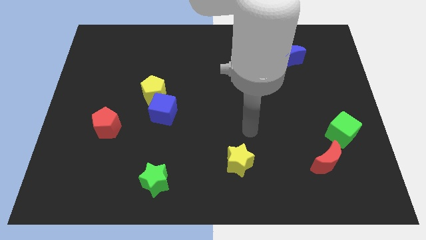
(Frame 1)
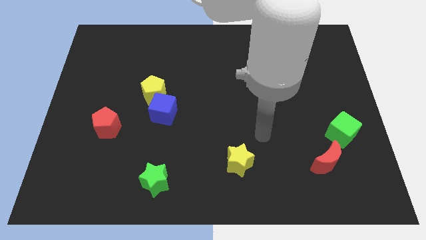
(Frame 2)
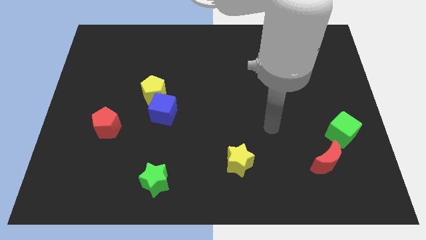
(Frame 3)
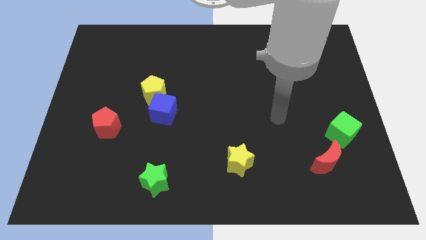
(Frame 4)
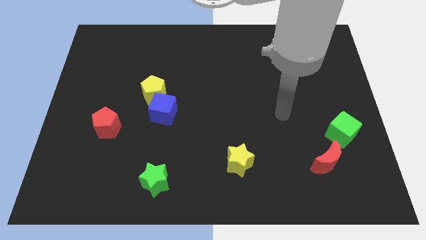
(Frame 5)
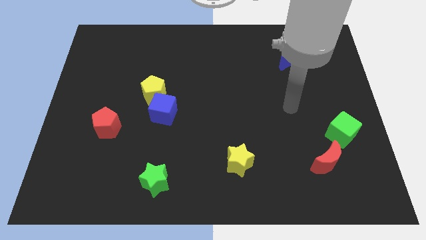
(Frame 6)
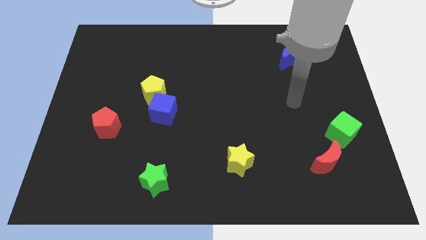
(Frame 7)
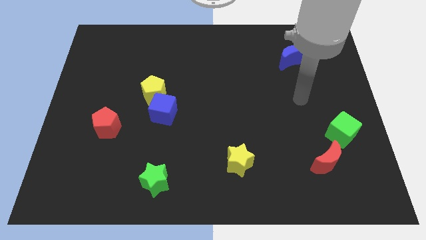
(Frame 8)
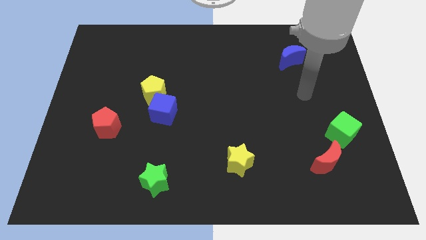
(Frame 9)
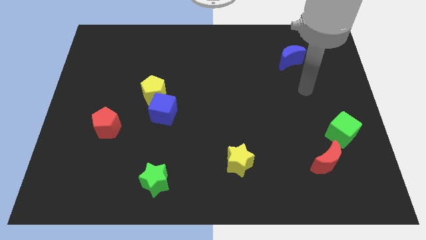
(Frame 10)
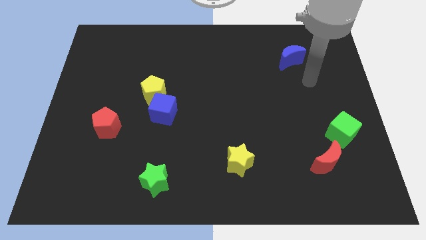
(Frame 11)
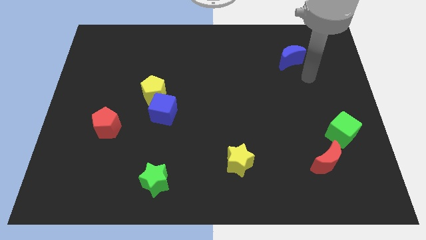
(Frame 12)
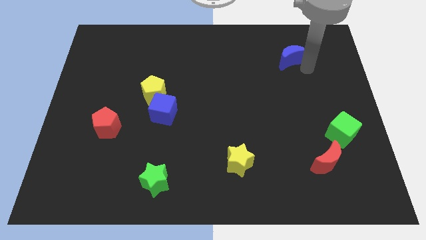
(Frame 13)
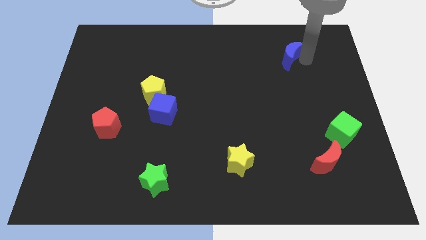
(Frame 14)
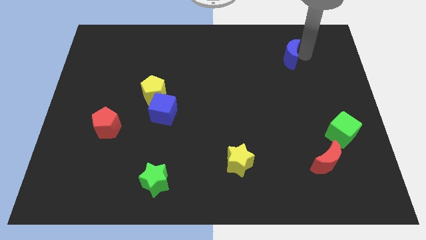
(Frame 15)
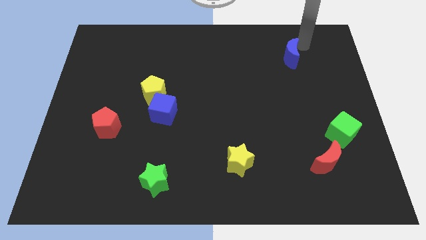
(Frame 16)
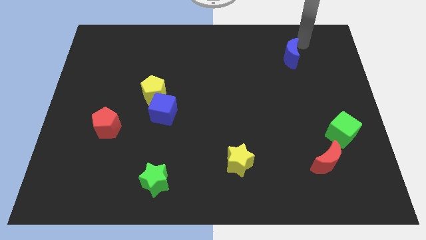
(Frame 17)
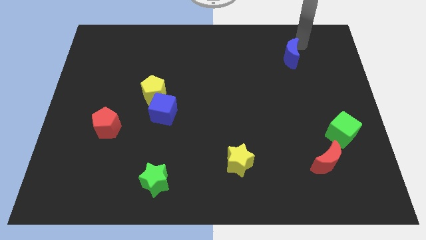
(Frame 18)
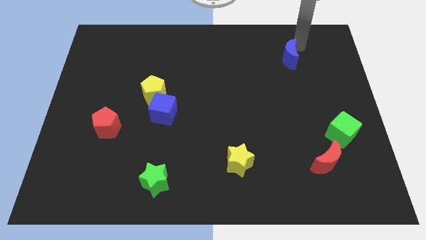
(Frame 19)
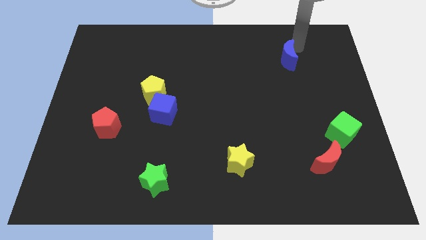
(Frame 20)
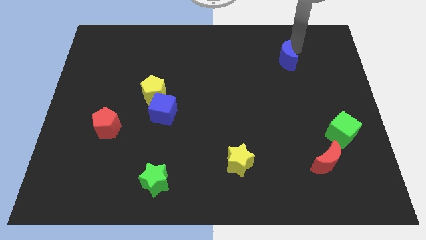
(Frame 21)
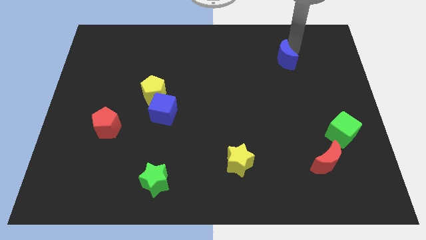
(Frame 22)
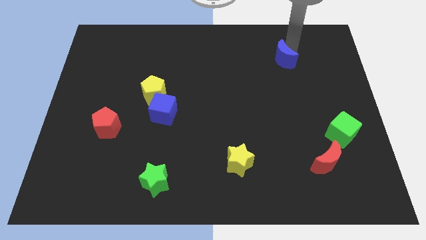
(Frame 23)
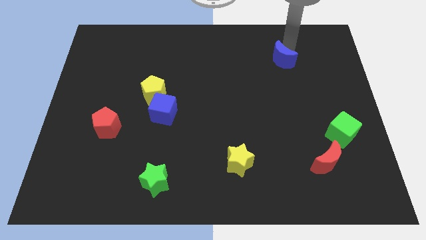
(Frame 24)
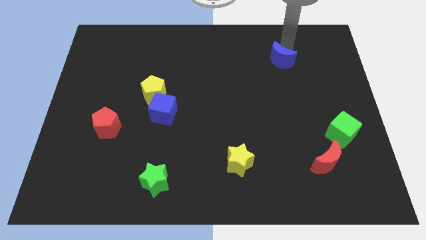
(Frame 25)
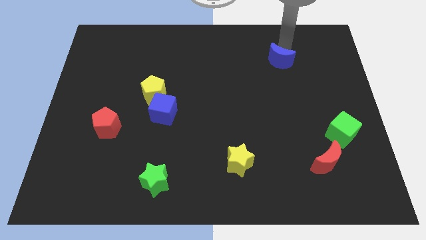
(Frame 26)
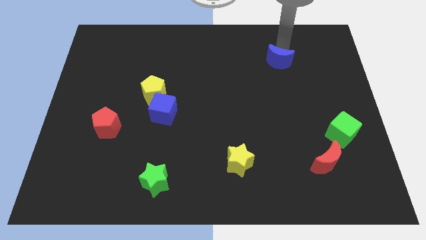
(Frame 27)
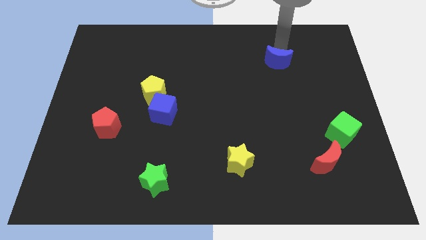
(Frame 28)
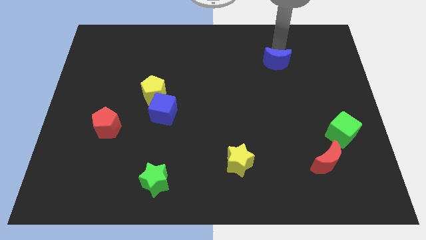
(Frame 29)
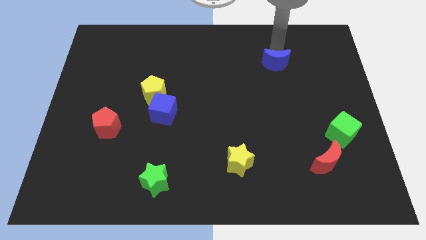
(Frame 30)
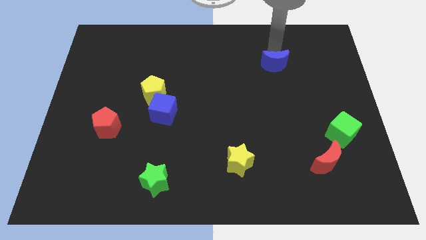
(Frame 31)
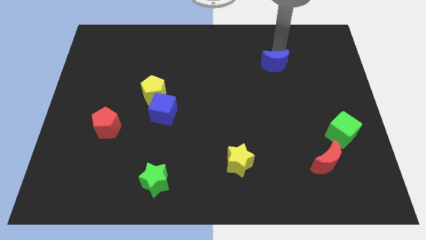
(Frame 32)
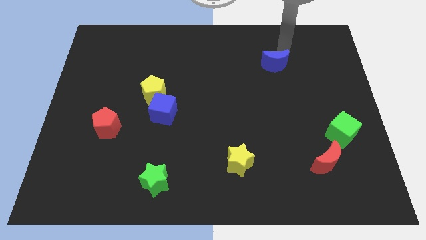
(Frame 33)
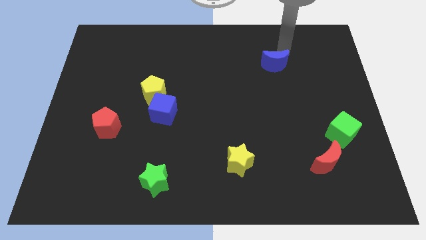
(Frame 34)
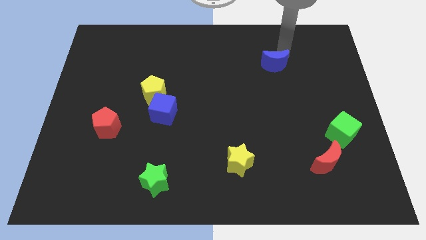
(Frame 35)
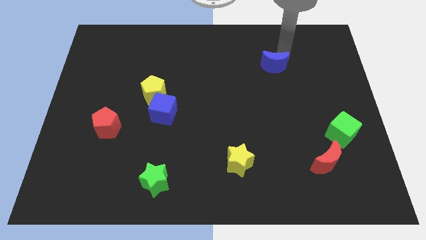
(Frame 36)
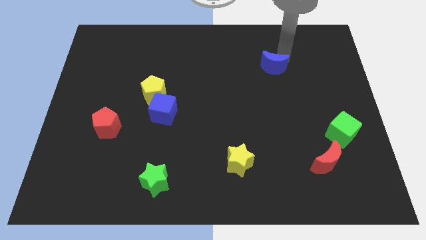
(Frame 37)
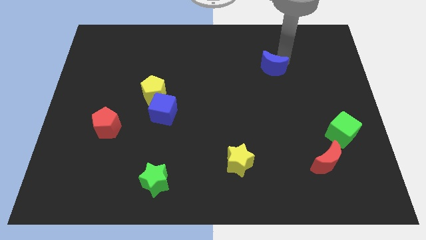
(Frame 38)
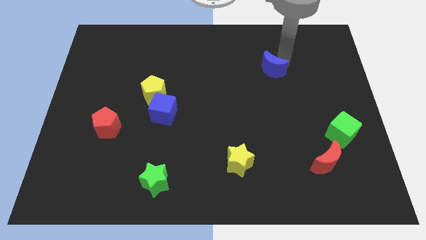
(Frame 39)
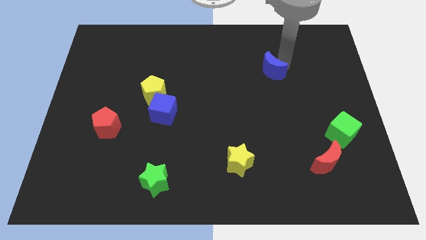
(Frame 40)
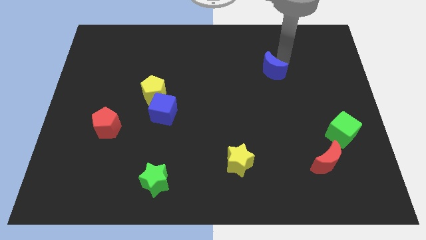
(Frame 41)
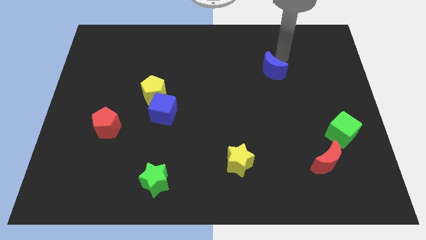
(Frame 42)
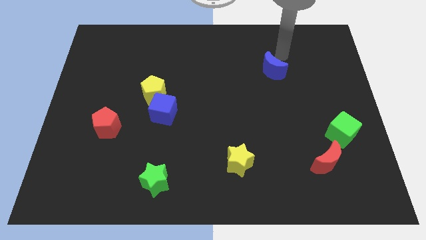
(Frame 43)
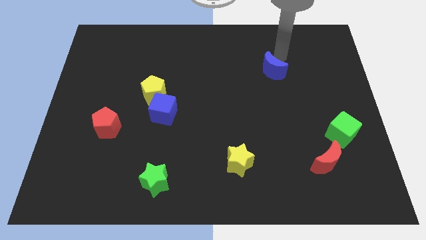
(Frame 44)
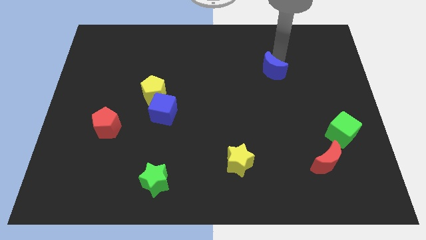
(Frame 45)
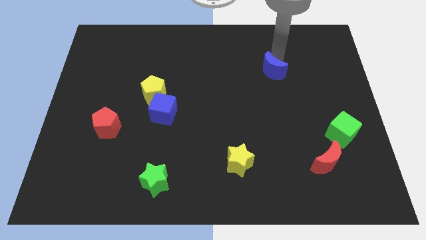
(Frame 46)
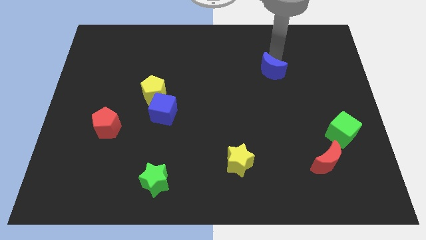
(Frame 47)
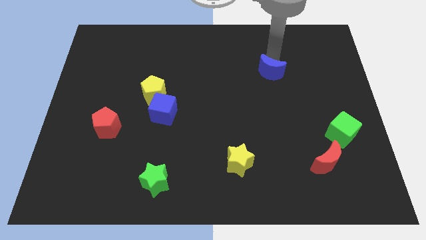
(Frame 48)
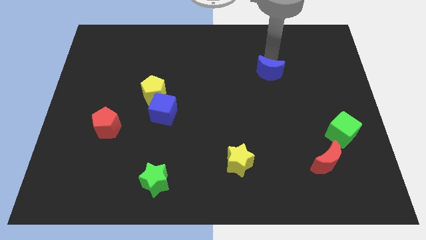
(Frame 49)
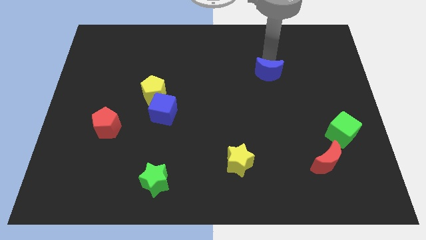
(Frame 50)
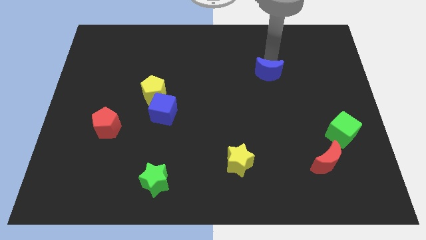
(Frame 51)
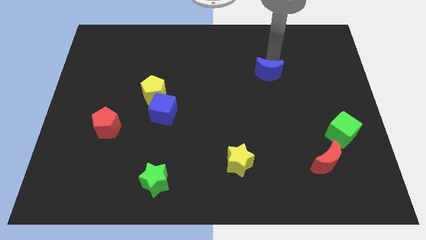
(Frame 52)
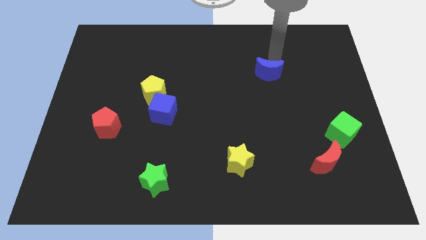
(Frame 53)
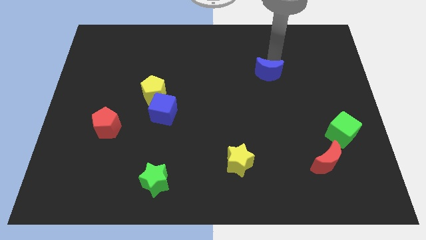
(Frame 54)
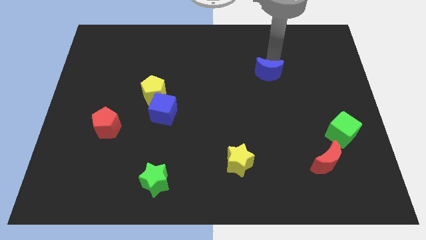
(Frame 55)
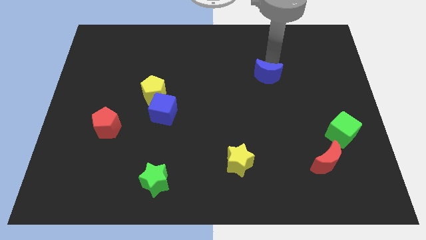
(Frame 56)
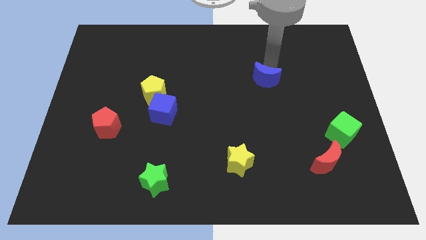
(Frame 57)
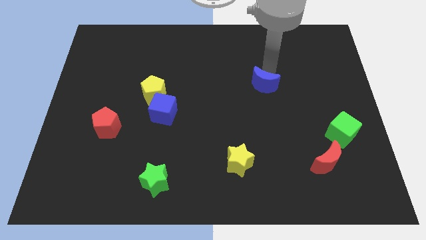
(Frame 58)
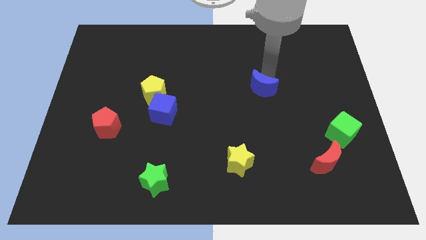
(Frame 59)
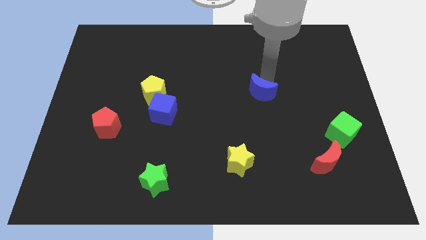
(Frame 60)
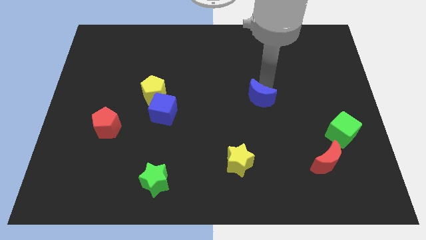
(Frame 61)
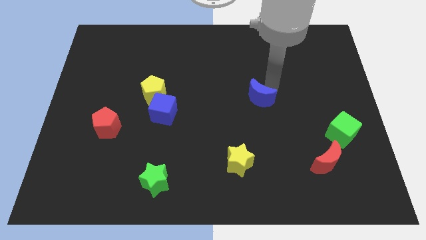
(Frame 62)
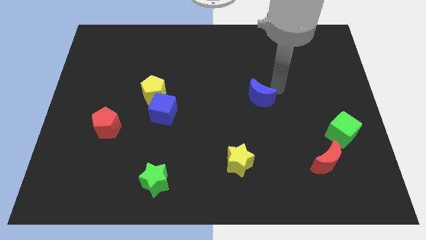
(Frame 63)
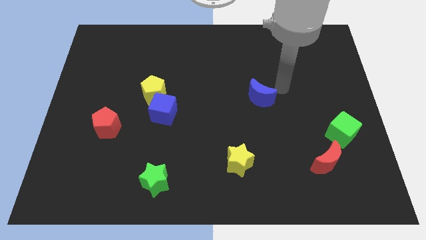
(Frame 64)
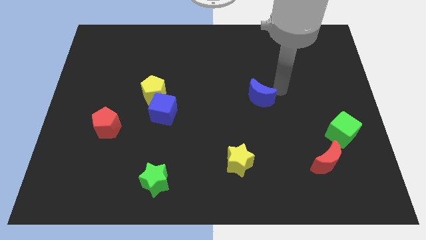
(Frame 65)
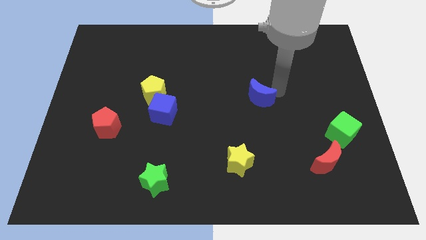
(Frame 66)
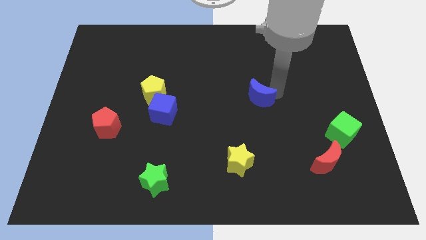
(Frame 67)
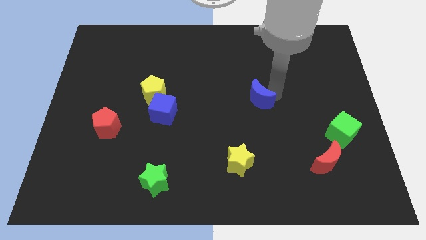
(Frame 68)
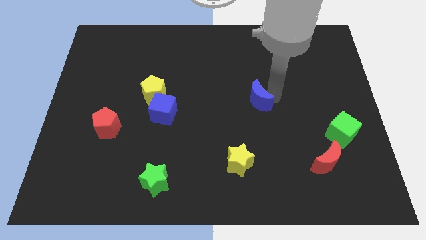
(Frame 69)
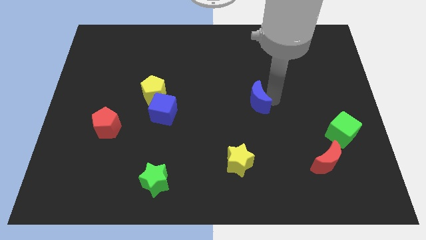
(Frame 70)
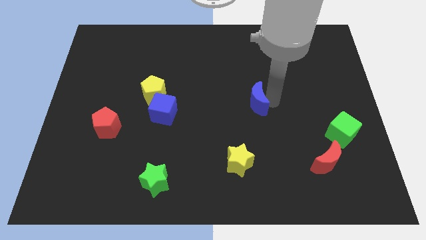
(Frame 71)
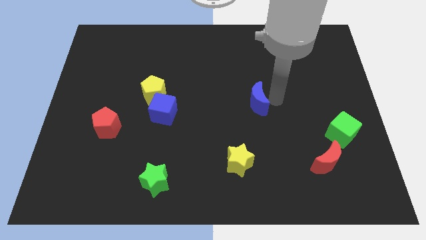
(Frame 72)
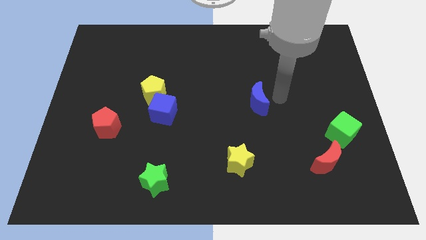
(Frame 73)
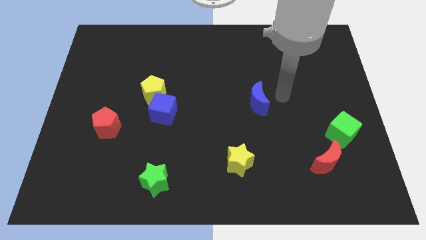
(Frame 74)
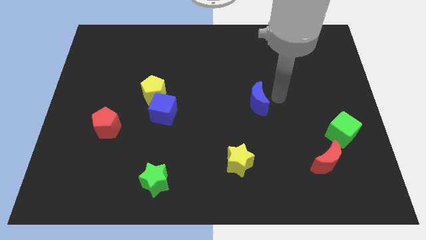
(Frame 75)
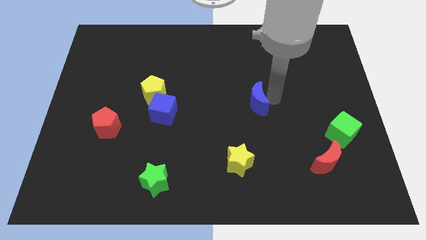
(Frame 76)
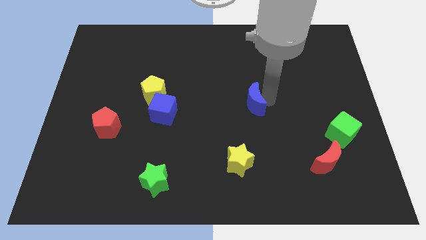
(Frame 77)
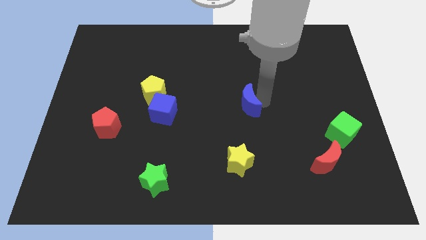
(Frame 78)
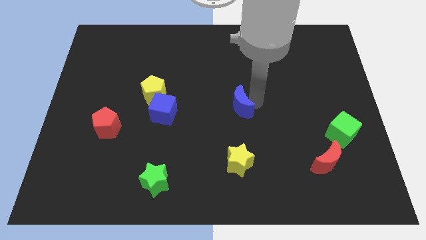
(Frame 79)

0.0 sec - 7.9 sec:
slide the blue moon downwards and to the left

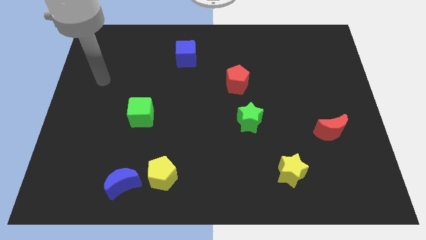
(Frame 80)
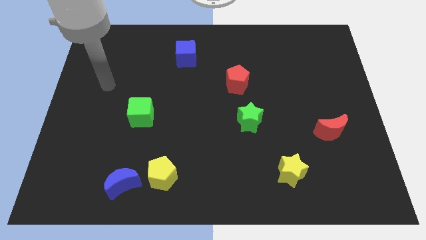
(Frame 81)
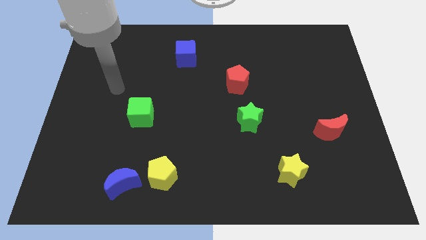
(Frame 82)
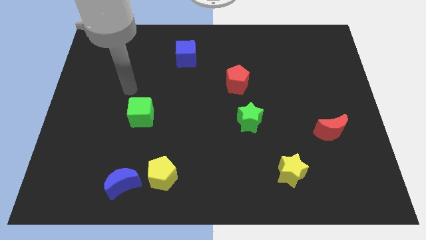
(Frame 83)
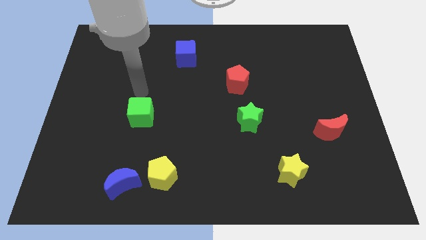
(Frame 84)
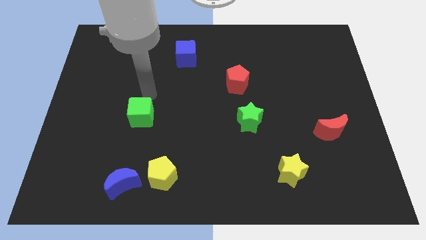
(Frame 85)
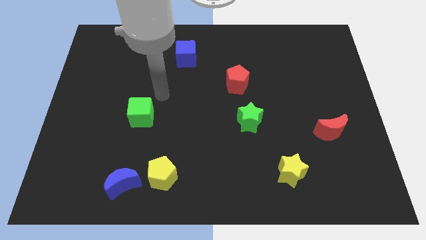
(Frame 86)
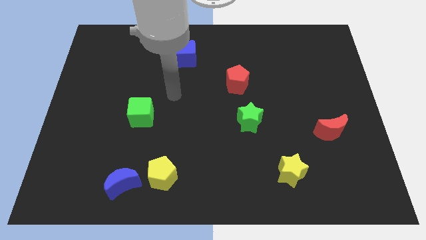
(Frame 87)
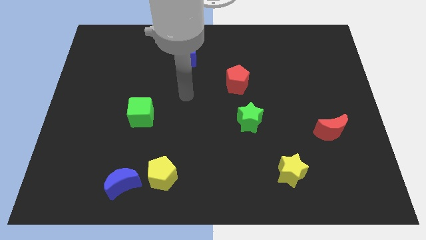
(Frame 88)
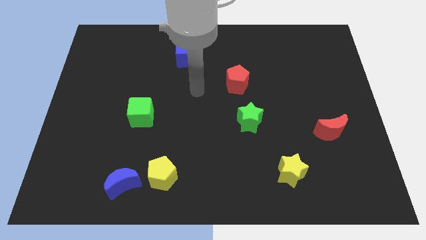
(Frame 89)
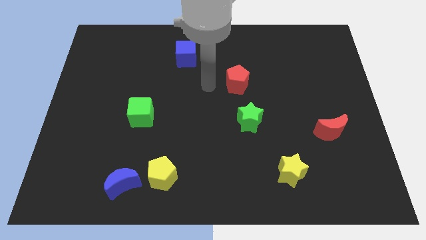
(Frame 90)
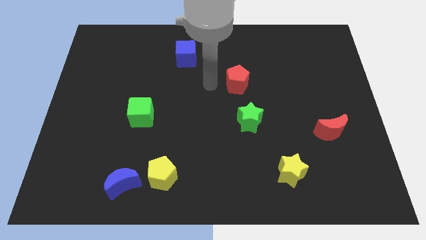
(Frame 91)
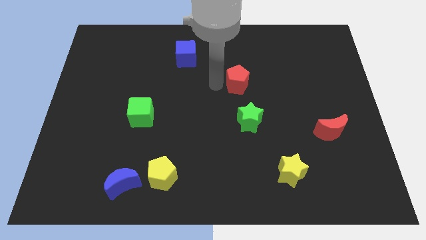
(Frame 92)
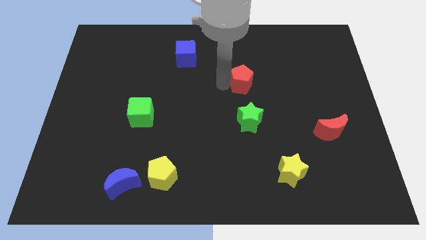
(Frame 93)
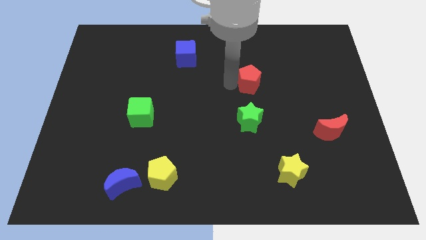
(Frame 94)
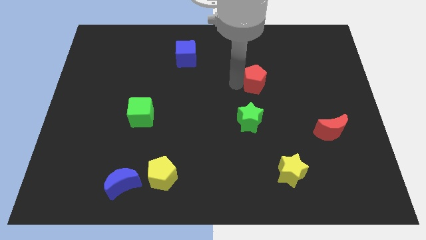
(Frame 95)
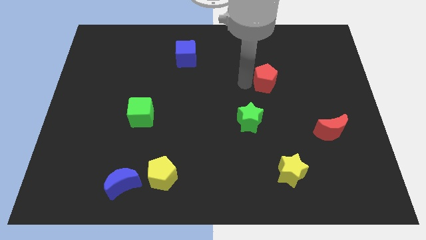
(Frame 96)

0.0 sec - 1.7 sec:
slightly push the red pentagon to the right
